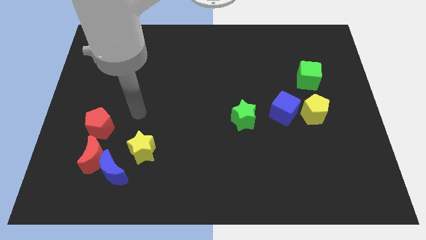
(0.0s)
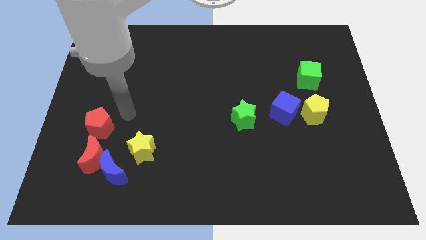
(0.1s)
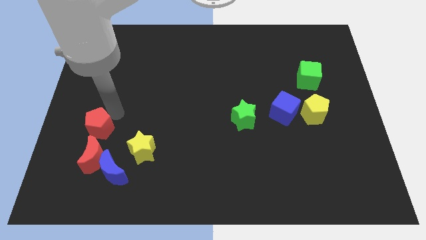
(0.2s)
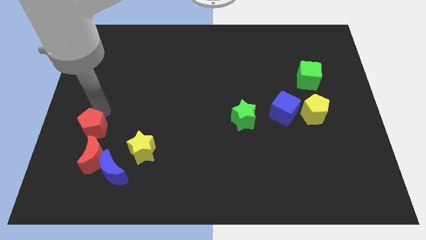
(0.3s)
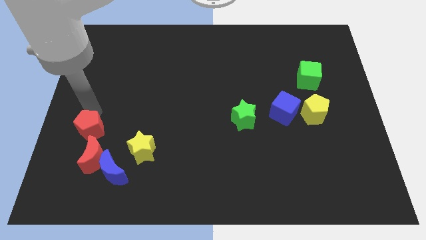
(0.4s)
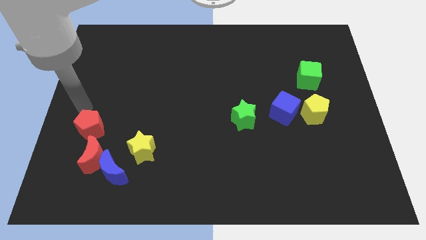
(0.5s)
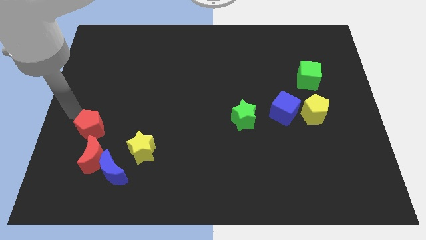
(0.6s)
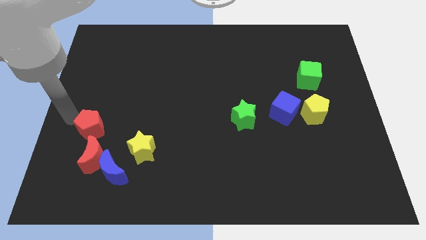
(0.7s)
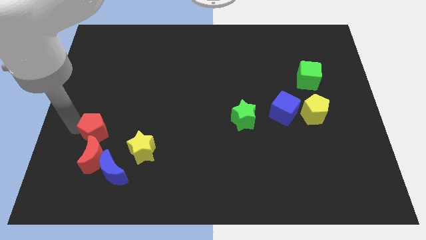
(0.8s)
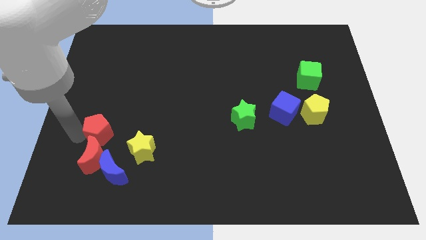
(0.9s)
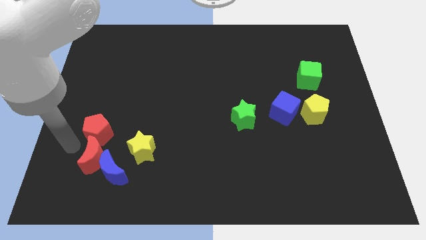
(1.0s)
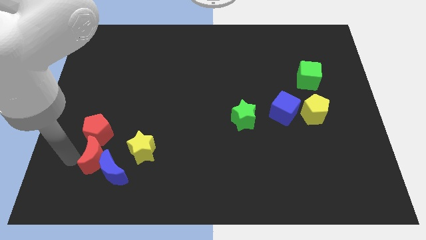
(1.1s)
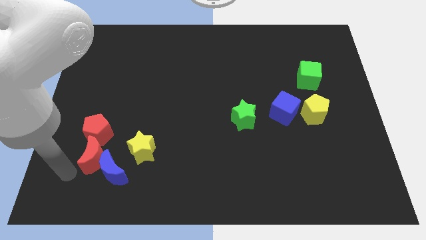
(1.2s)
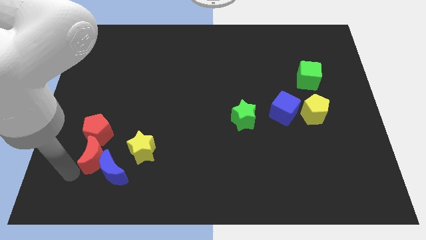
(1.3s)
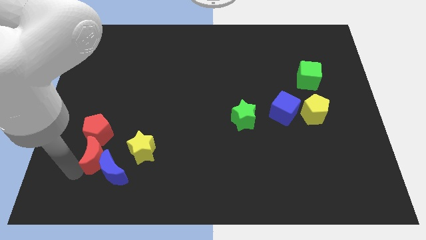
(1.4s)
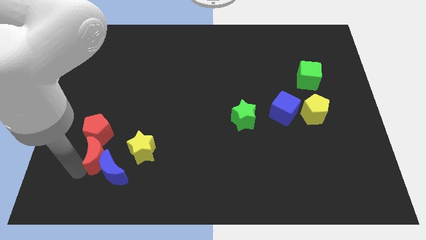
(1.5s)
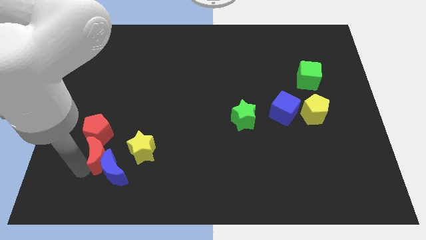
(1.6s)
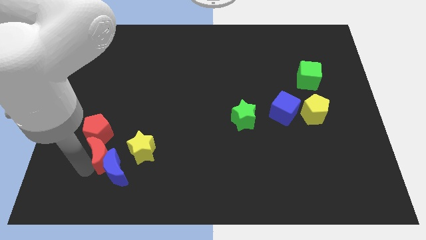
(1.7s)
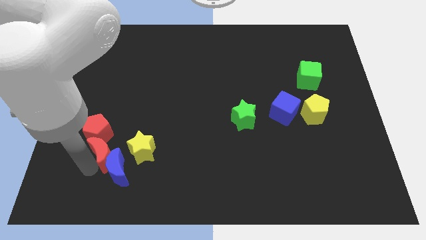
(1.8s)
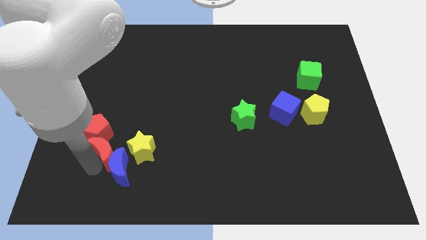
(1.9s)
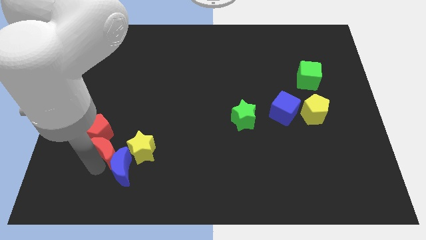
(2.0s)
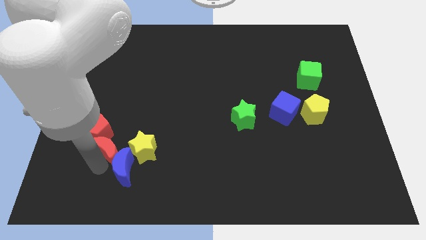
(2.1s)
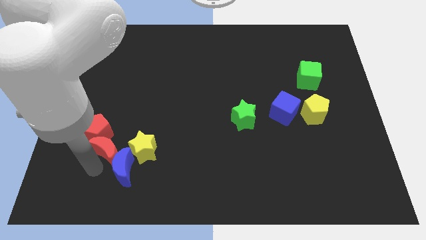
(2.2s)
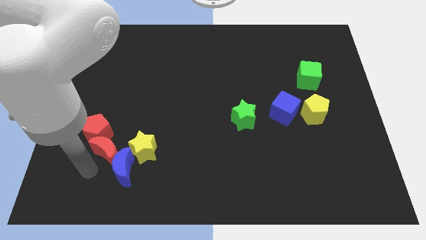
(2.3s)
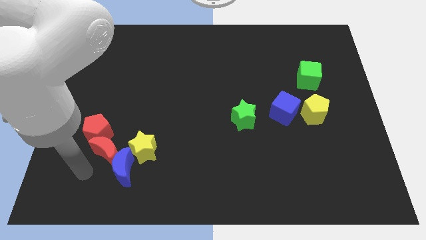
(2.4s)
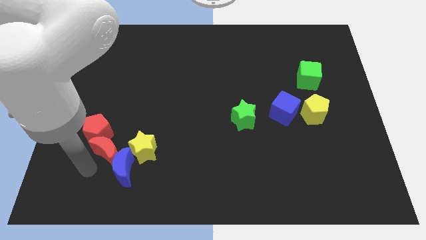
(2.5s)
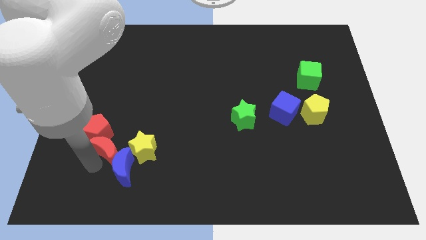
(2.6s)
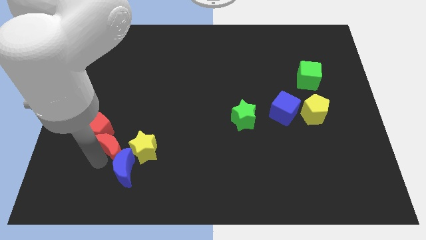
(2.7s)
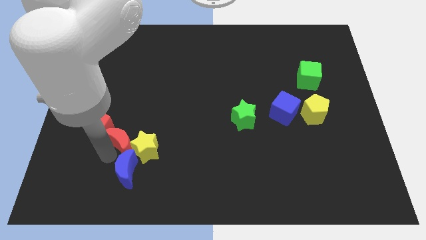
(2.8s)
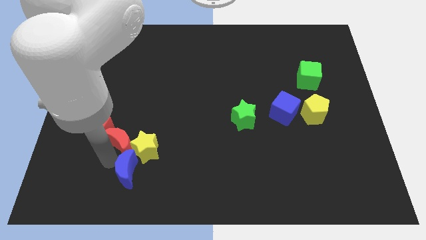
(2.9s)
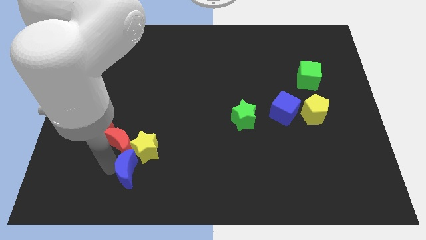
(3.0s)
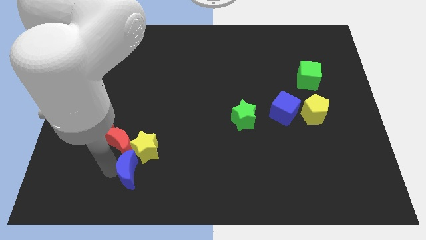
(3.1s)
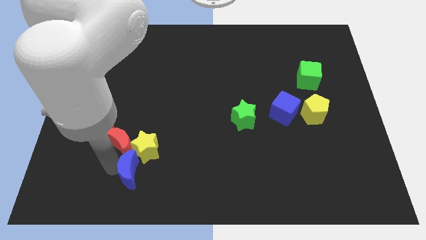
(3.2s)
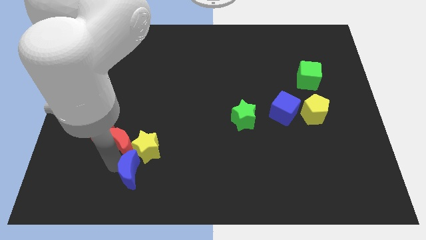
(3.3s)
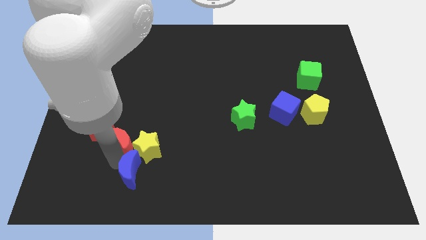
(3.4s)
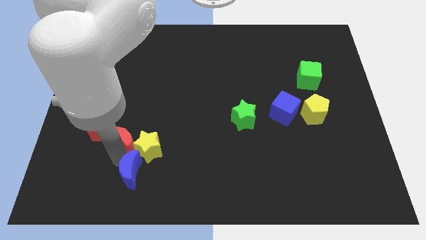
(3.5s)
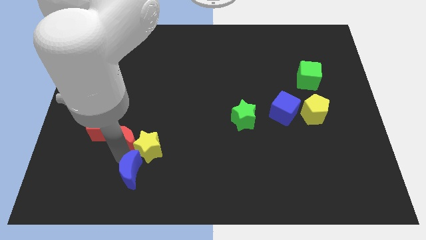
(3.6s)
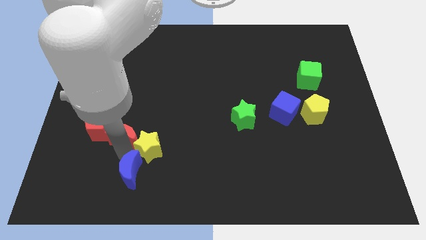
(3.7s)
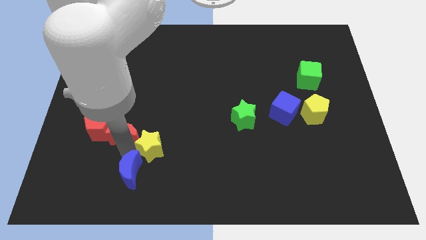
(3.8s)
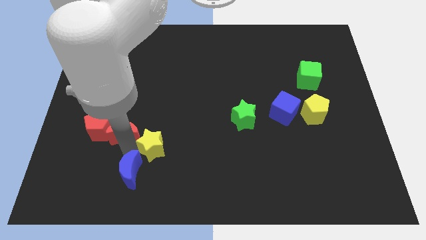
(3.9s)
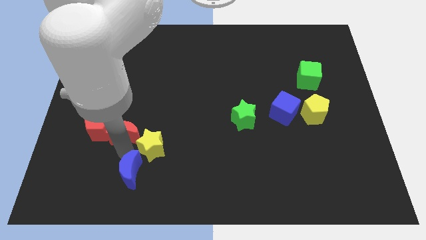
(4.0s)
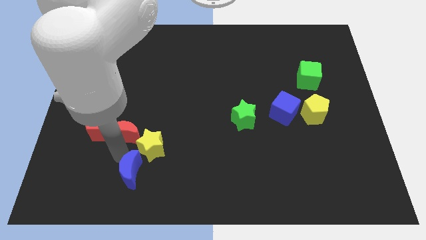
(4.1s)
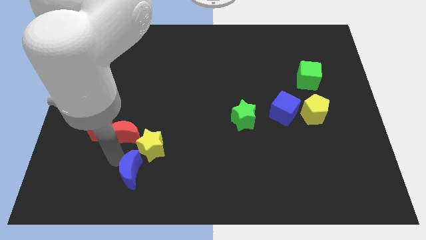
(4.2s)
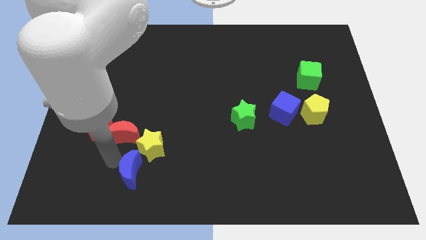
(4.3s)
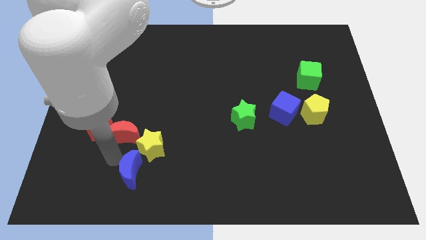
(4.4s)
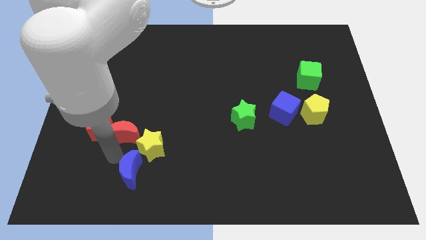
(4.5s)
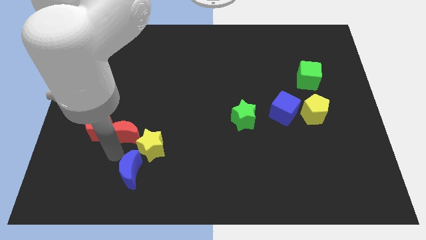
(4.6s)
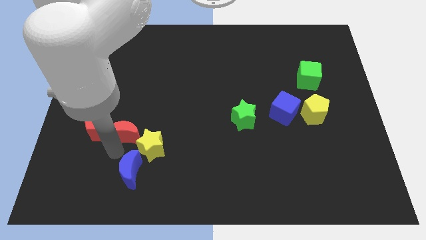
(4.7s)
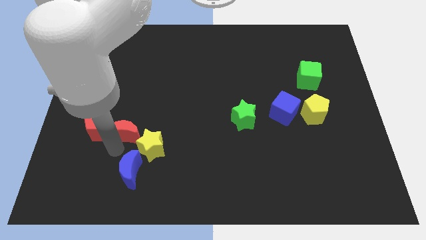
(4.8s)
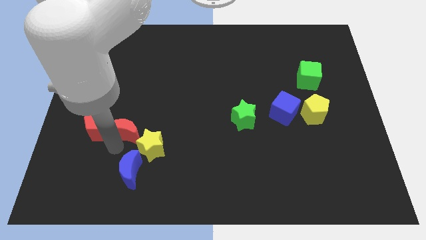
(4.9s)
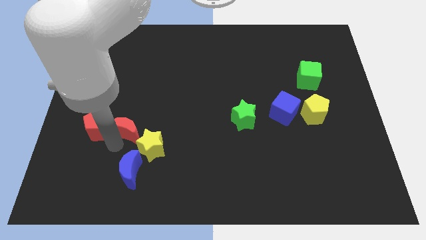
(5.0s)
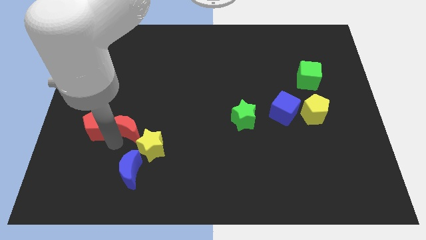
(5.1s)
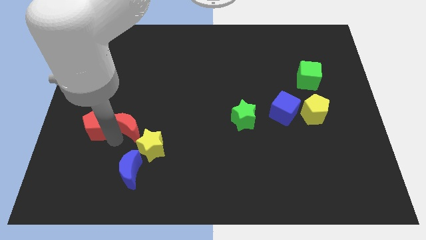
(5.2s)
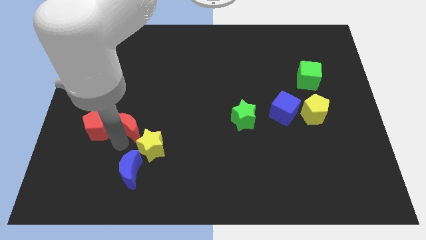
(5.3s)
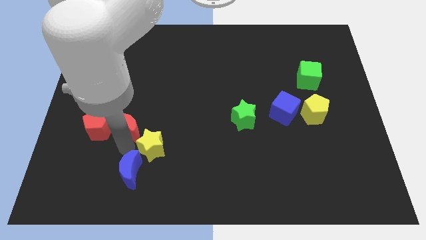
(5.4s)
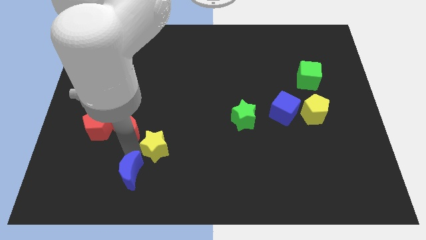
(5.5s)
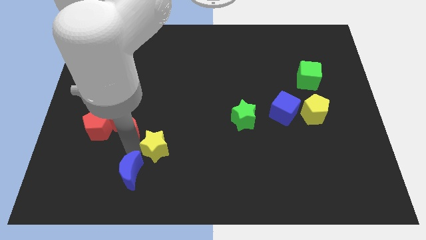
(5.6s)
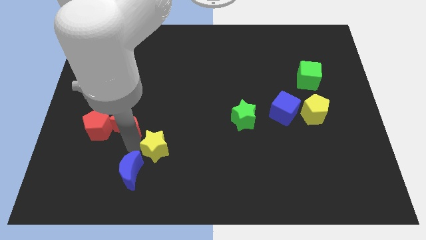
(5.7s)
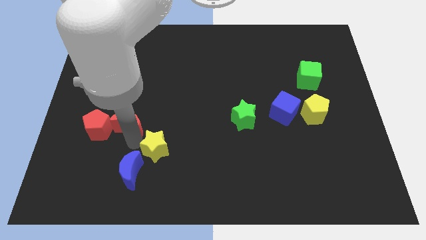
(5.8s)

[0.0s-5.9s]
slightly slide the red moon upwards

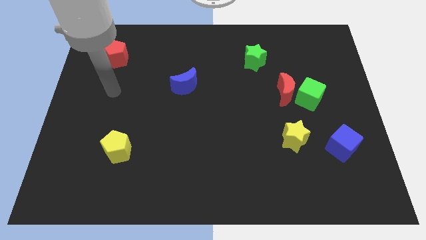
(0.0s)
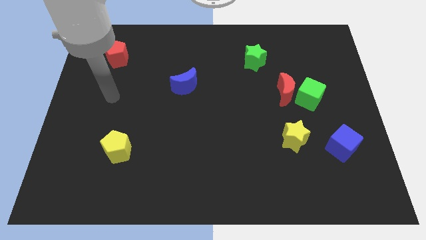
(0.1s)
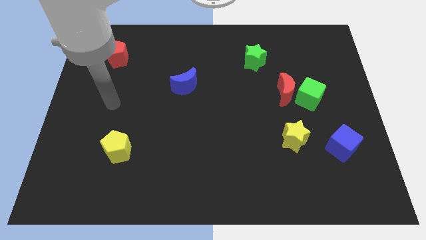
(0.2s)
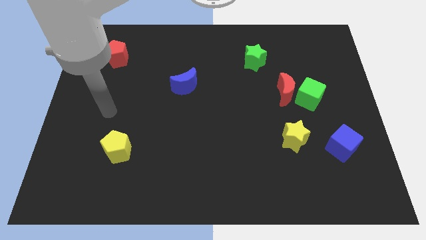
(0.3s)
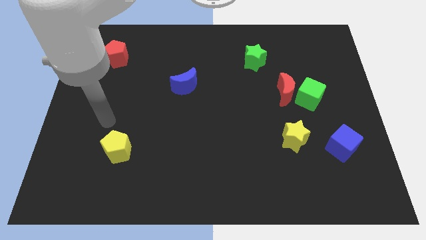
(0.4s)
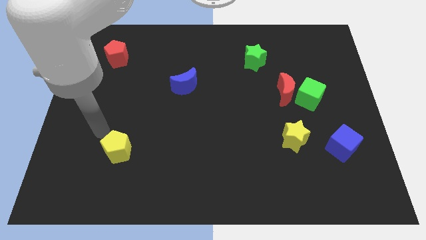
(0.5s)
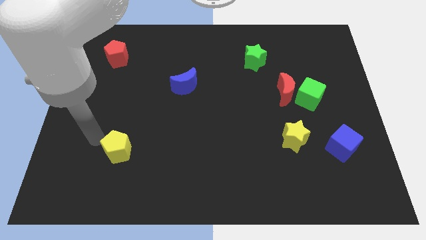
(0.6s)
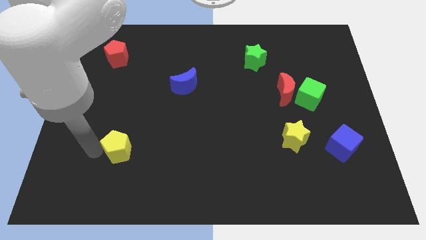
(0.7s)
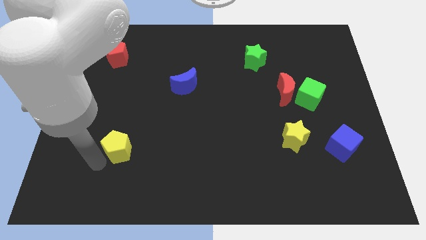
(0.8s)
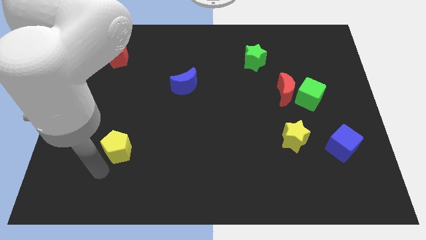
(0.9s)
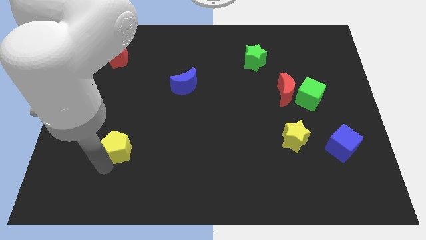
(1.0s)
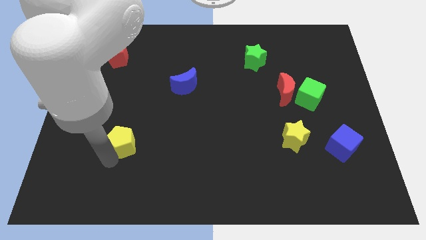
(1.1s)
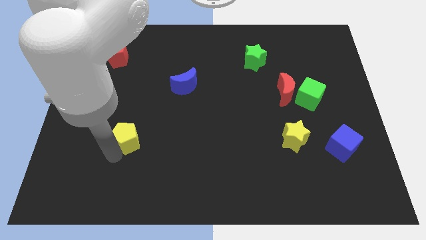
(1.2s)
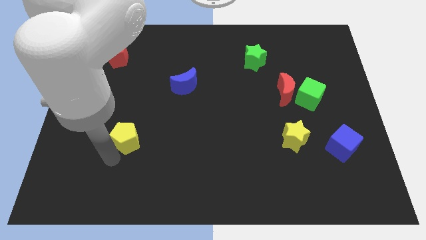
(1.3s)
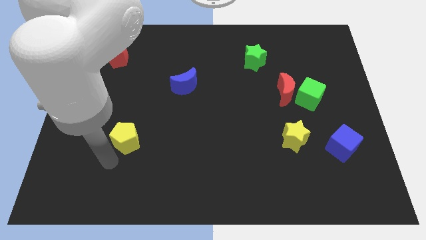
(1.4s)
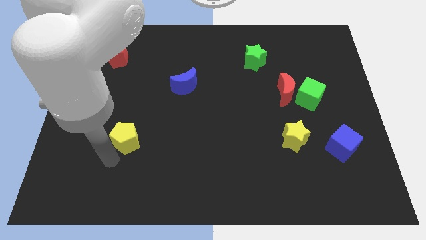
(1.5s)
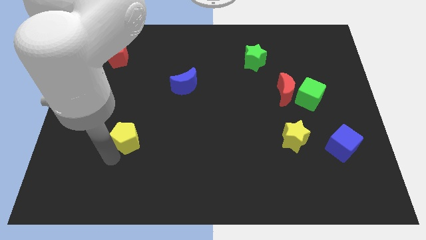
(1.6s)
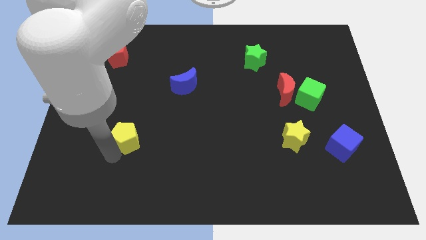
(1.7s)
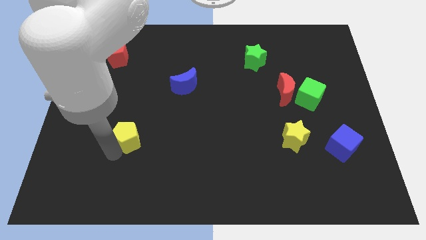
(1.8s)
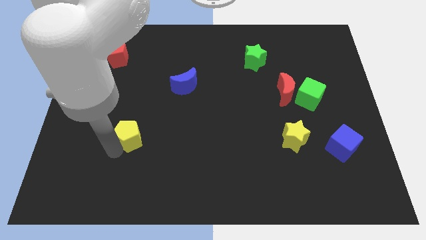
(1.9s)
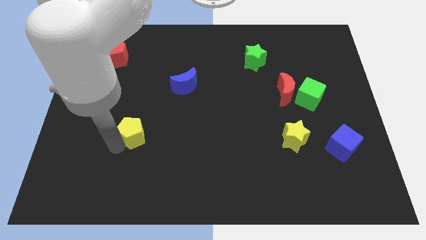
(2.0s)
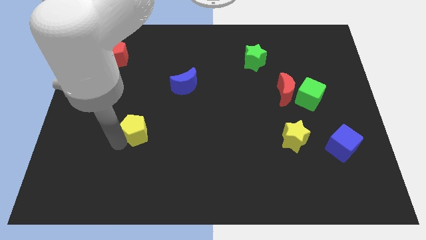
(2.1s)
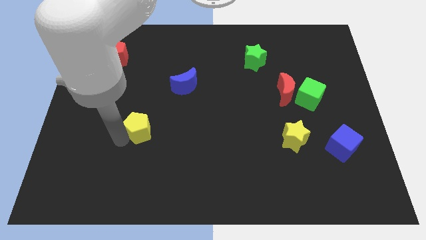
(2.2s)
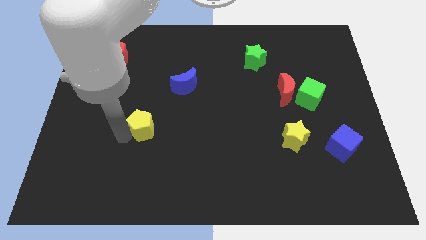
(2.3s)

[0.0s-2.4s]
slide the yellow pentagon up and then right a little bit
